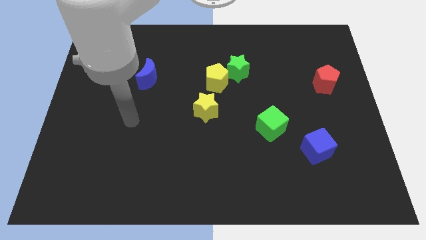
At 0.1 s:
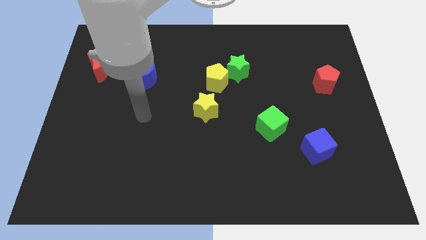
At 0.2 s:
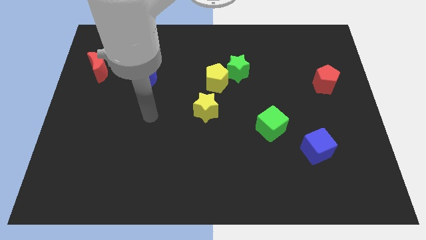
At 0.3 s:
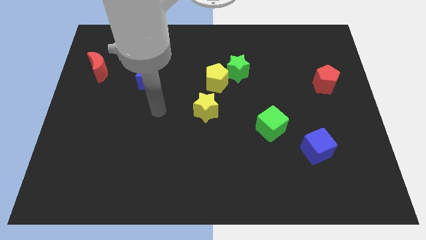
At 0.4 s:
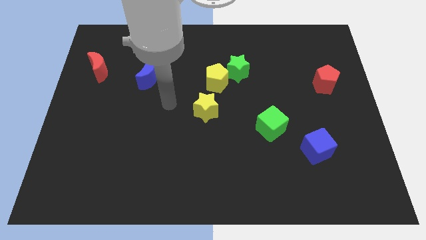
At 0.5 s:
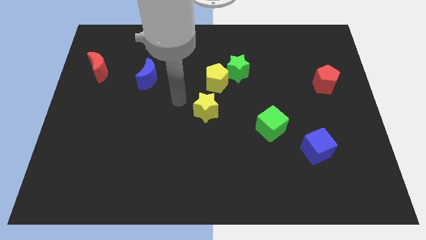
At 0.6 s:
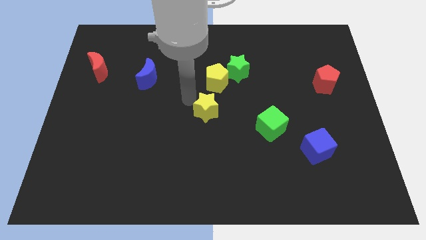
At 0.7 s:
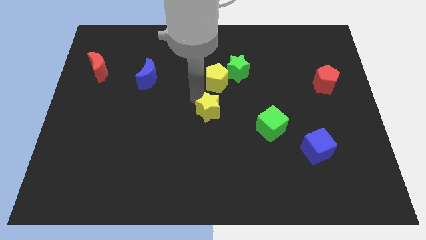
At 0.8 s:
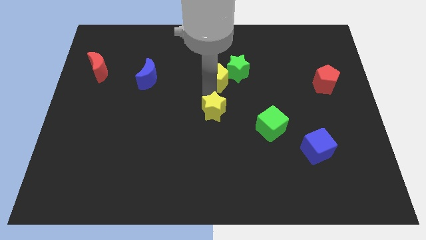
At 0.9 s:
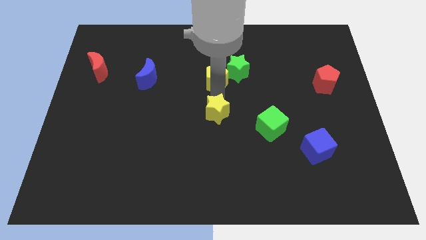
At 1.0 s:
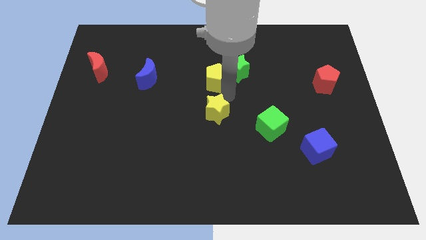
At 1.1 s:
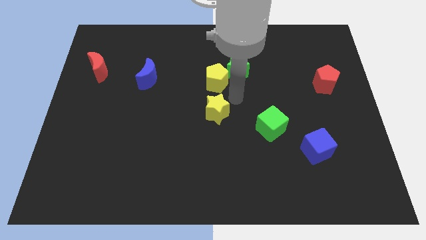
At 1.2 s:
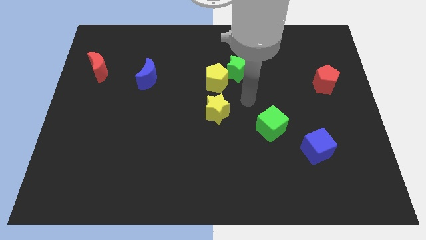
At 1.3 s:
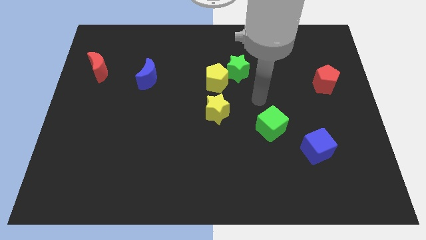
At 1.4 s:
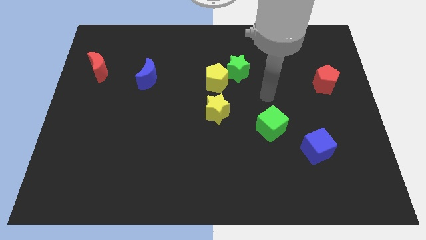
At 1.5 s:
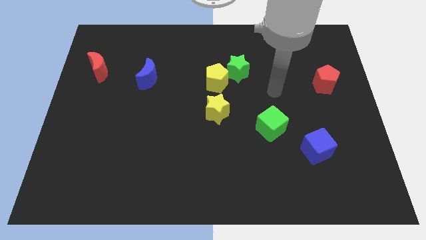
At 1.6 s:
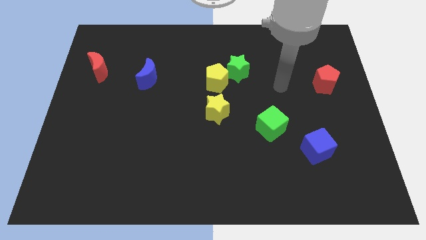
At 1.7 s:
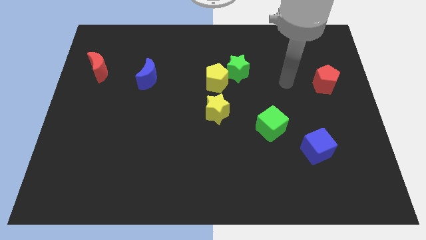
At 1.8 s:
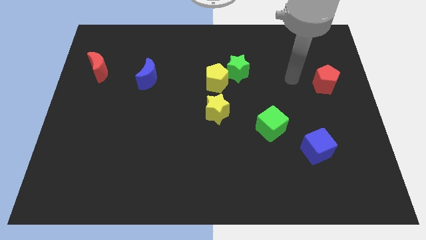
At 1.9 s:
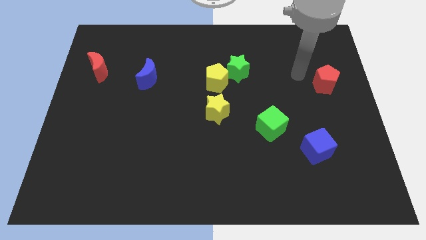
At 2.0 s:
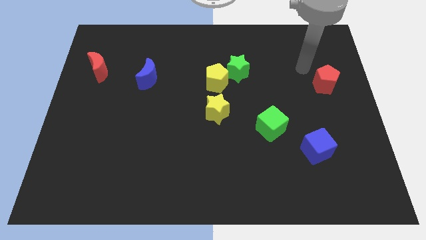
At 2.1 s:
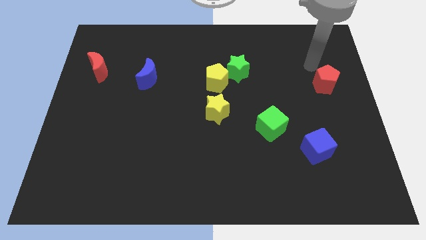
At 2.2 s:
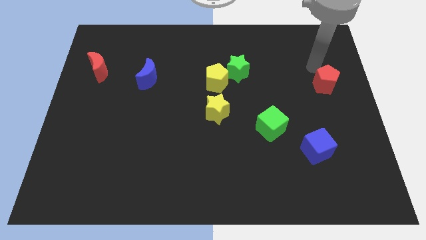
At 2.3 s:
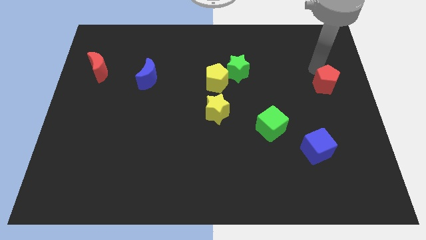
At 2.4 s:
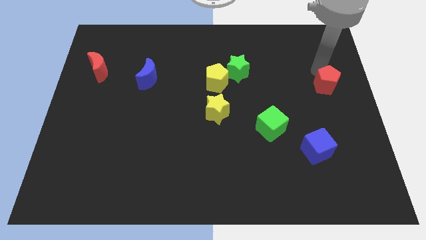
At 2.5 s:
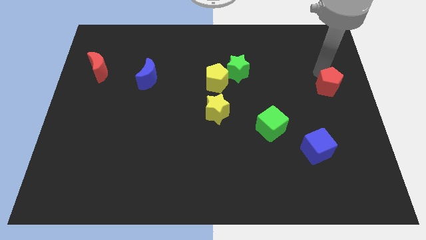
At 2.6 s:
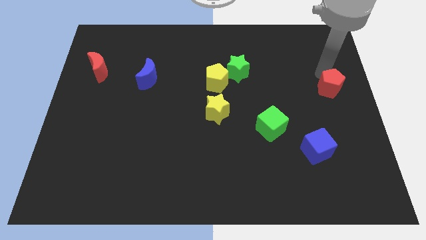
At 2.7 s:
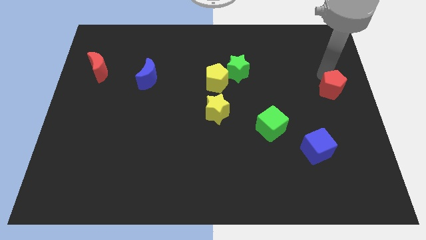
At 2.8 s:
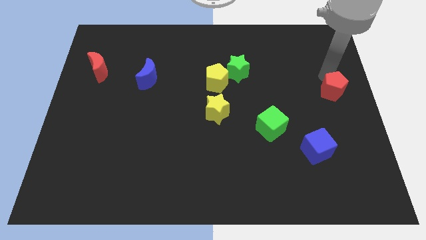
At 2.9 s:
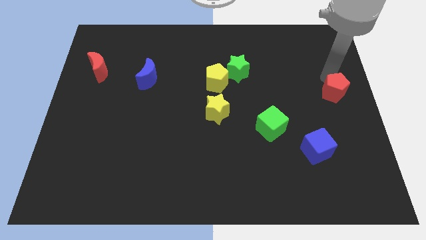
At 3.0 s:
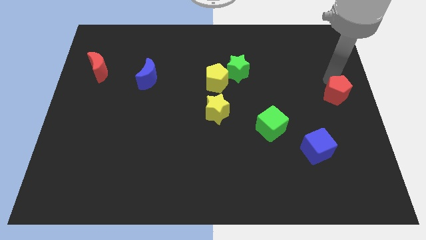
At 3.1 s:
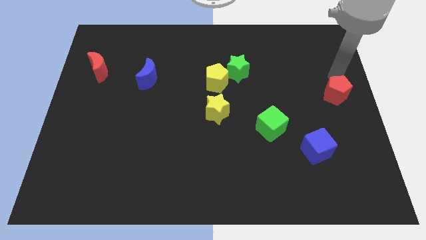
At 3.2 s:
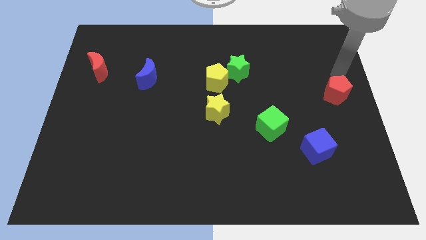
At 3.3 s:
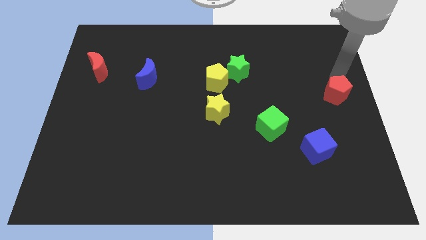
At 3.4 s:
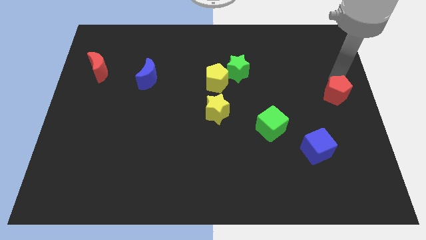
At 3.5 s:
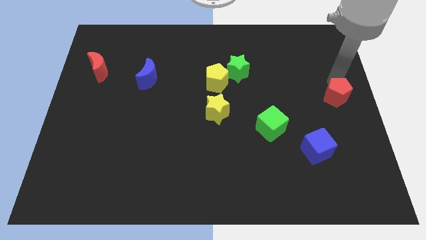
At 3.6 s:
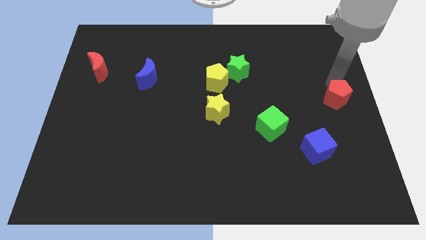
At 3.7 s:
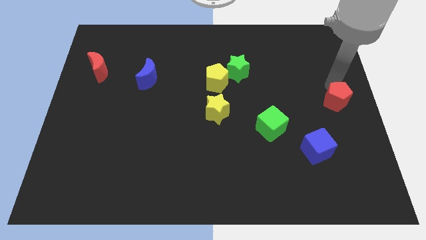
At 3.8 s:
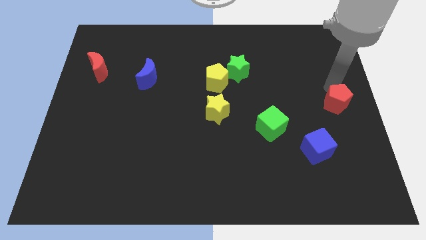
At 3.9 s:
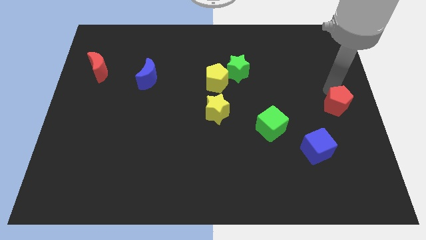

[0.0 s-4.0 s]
push the red pentagon downwards a little

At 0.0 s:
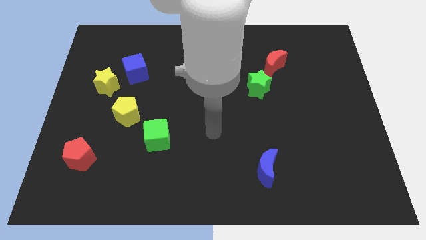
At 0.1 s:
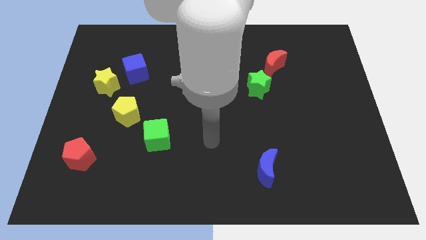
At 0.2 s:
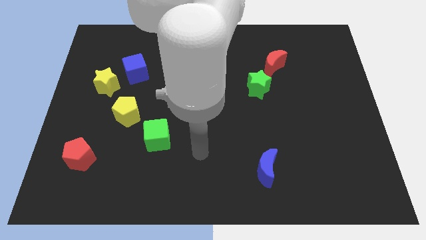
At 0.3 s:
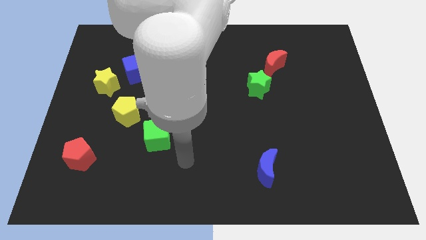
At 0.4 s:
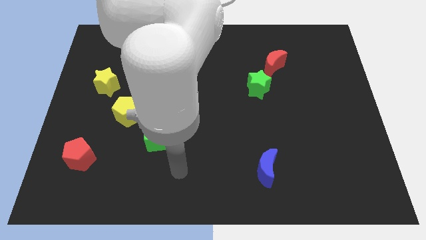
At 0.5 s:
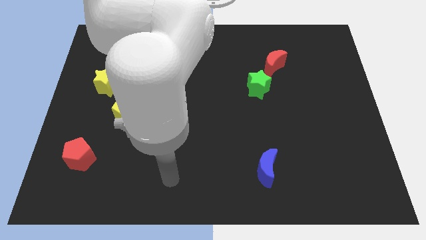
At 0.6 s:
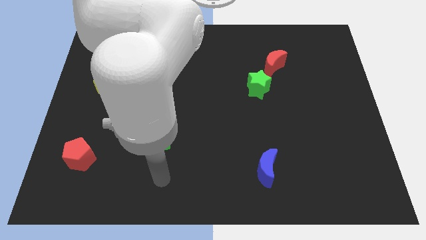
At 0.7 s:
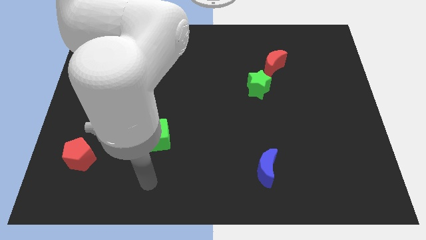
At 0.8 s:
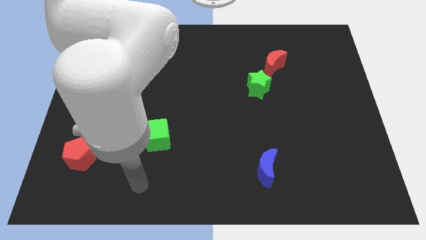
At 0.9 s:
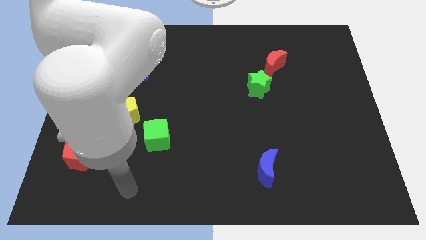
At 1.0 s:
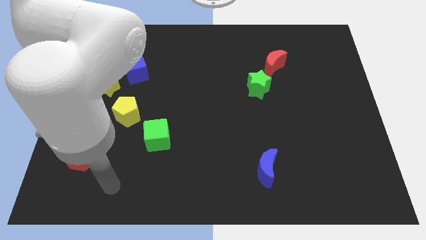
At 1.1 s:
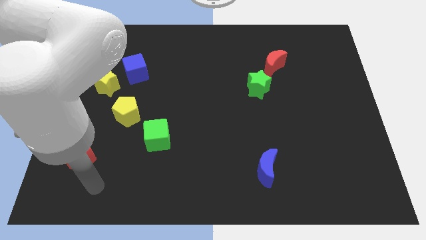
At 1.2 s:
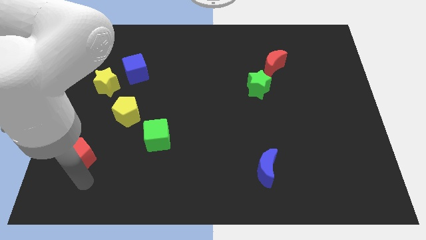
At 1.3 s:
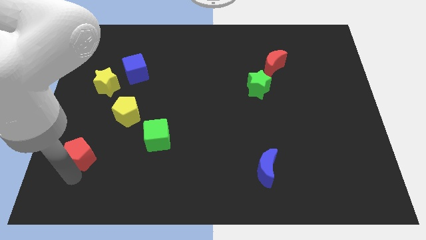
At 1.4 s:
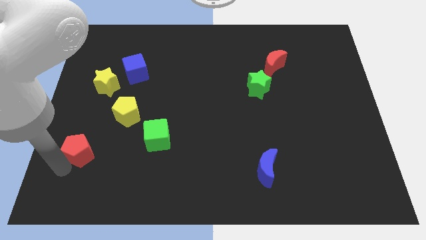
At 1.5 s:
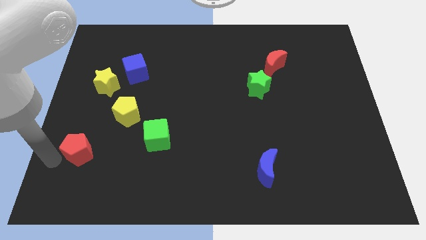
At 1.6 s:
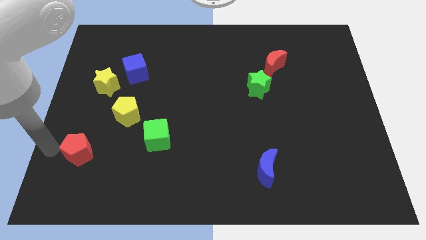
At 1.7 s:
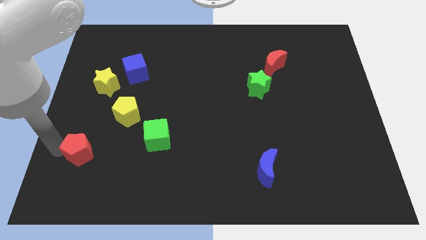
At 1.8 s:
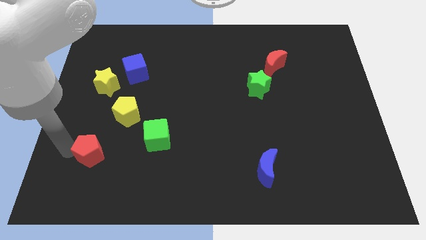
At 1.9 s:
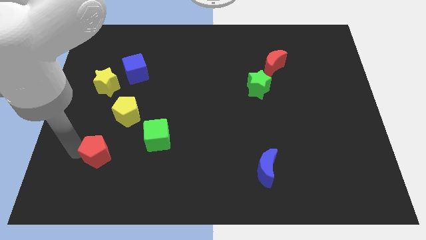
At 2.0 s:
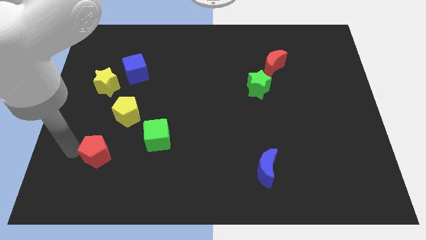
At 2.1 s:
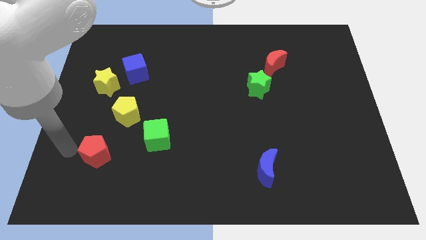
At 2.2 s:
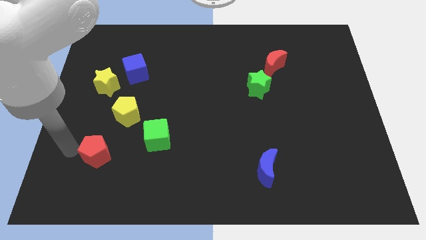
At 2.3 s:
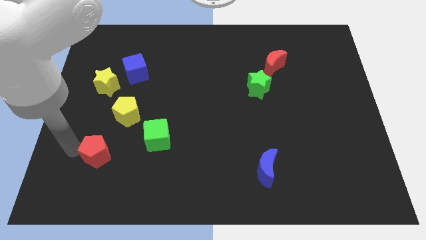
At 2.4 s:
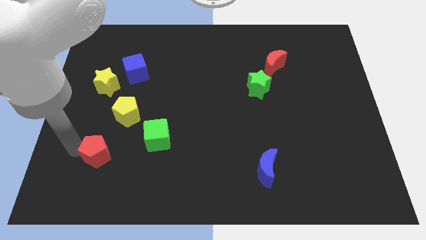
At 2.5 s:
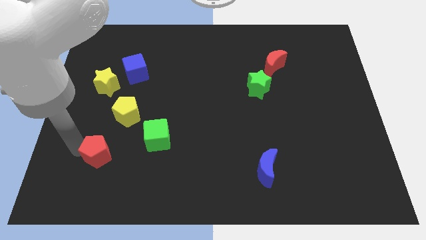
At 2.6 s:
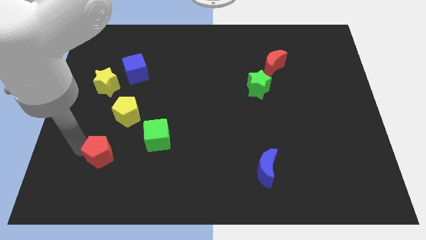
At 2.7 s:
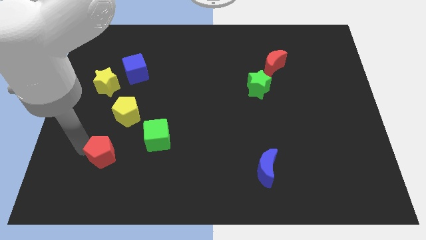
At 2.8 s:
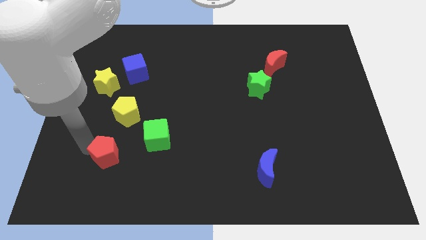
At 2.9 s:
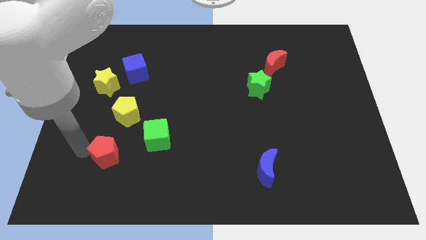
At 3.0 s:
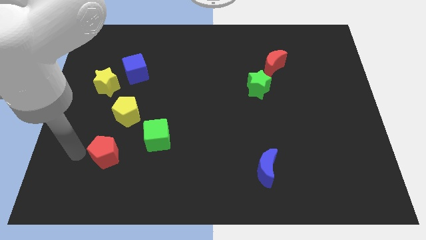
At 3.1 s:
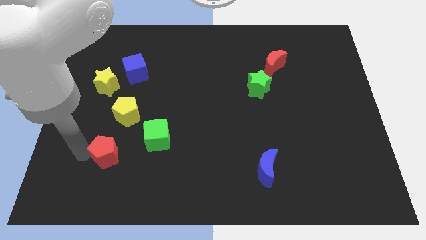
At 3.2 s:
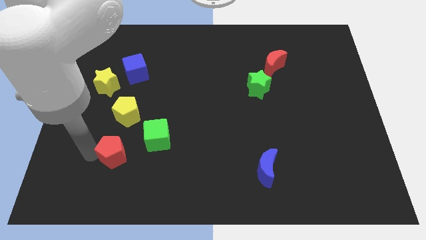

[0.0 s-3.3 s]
move the red pentagon right somewhat

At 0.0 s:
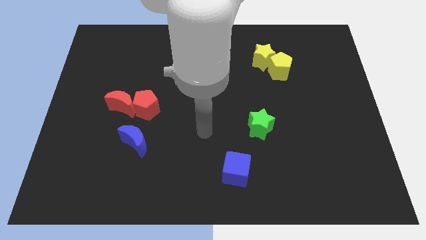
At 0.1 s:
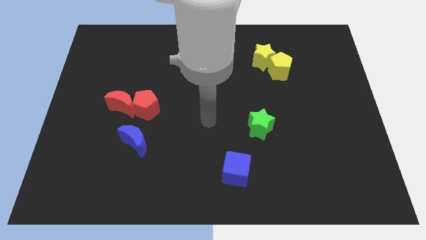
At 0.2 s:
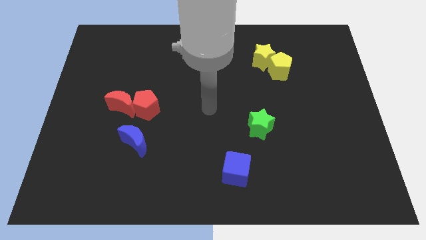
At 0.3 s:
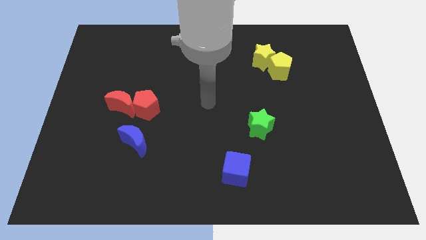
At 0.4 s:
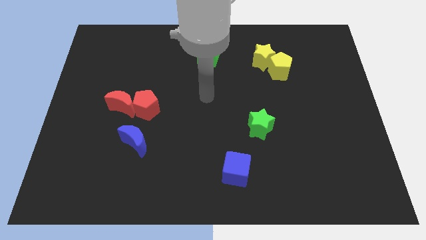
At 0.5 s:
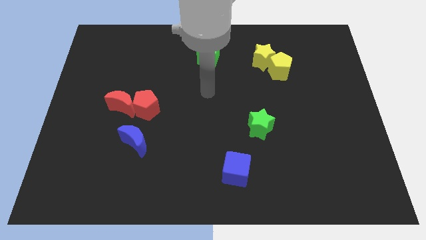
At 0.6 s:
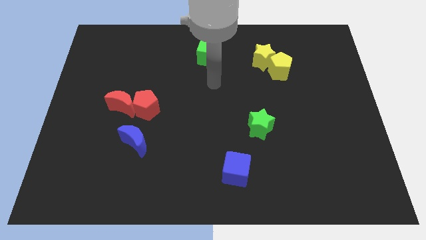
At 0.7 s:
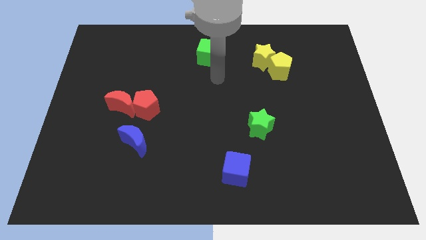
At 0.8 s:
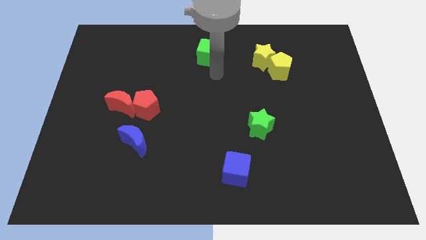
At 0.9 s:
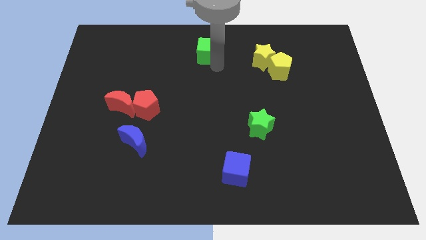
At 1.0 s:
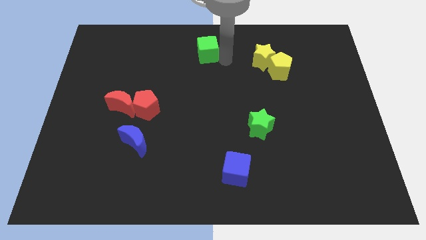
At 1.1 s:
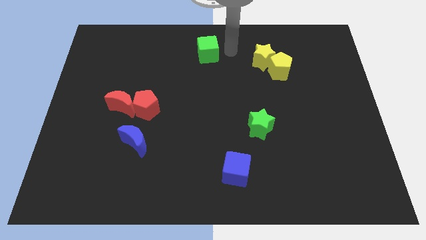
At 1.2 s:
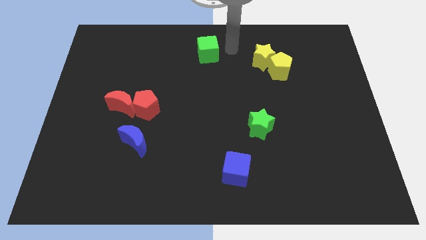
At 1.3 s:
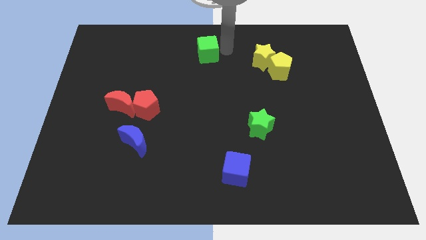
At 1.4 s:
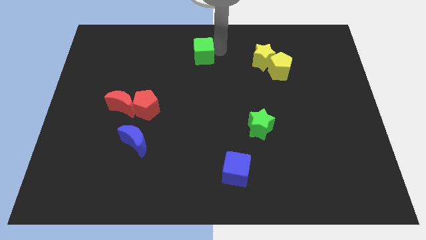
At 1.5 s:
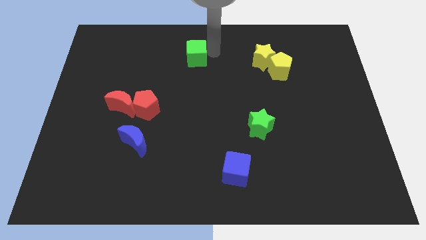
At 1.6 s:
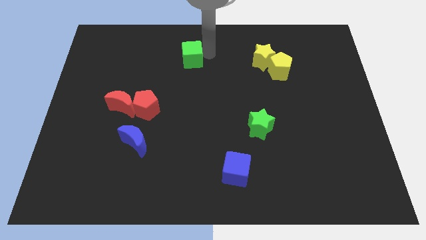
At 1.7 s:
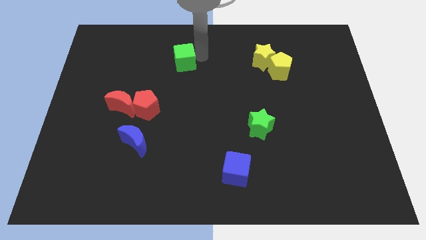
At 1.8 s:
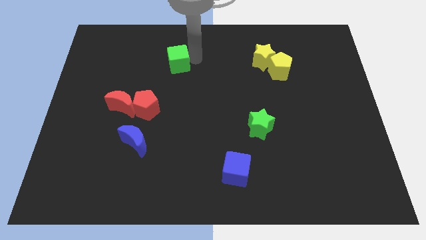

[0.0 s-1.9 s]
move the green cube a little bit left
